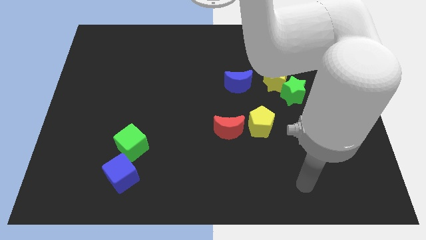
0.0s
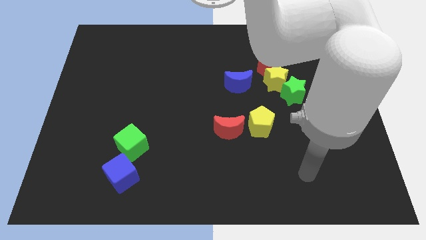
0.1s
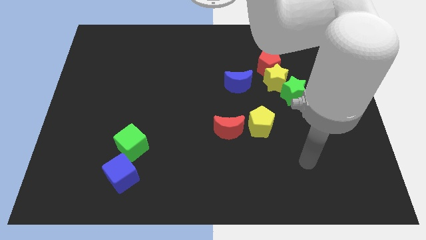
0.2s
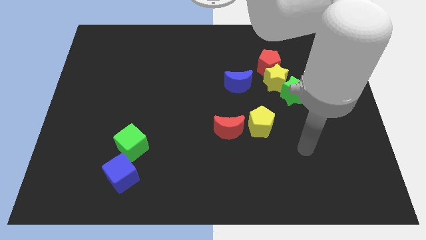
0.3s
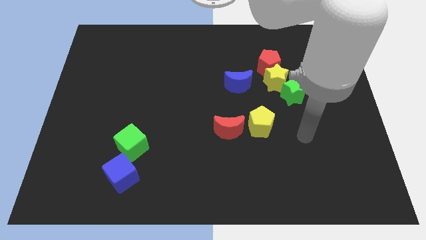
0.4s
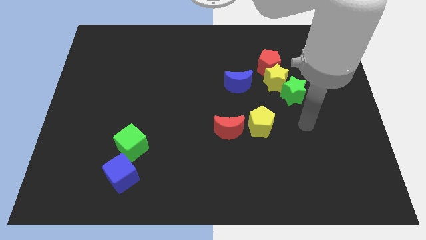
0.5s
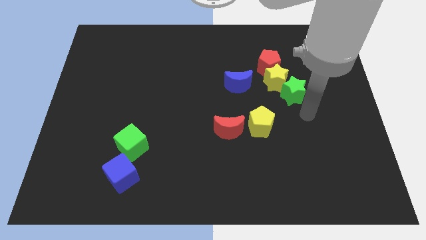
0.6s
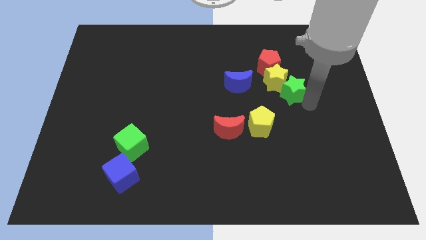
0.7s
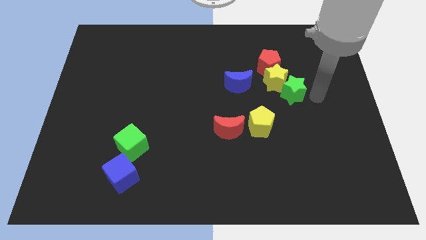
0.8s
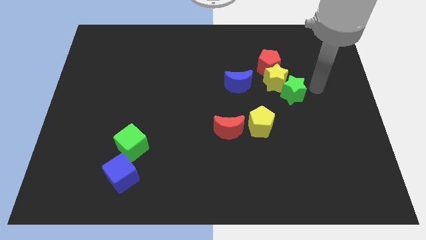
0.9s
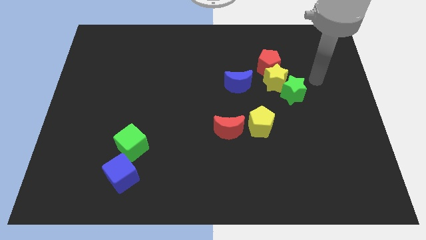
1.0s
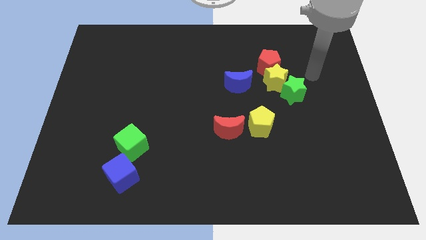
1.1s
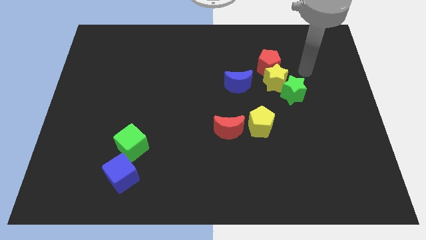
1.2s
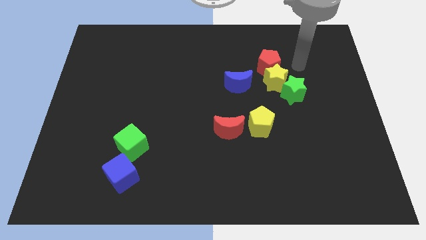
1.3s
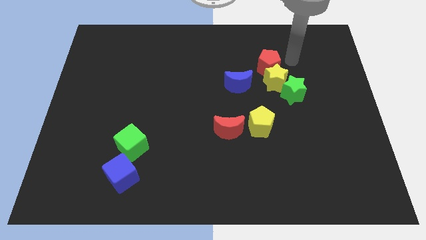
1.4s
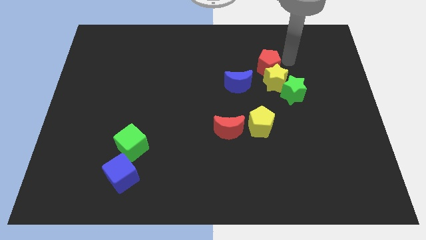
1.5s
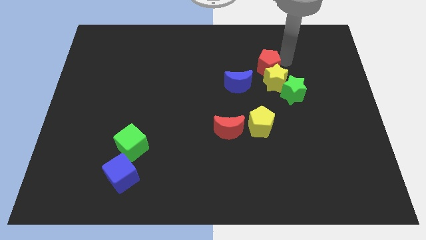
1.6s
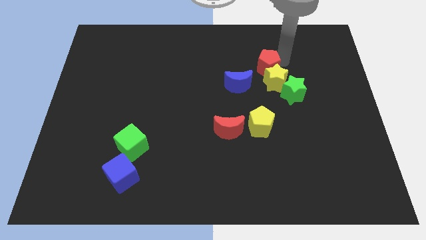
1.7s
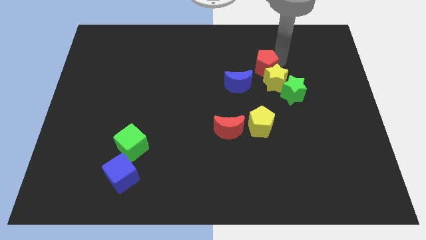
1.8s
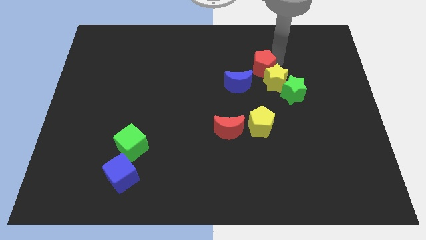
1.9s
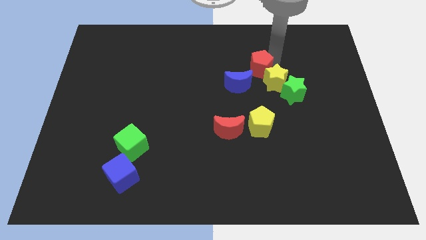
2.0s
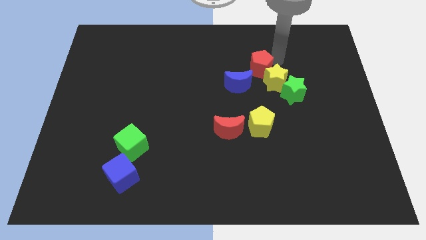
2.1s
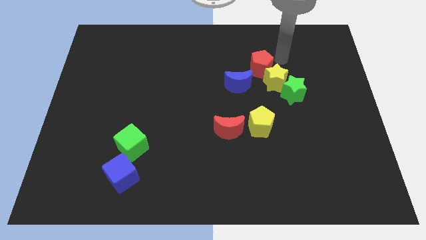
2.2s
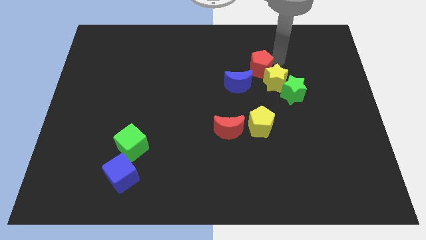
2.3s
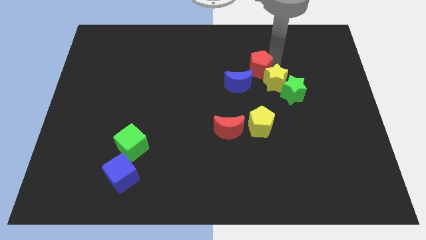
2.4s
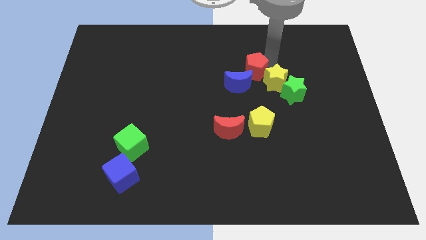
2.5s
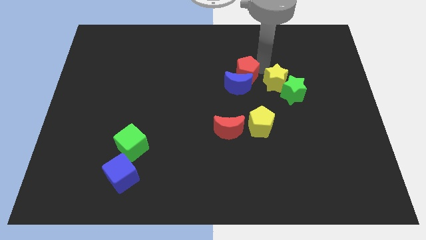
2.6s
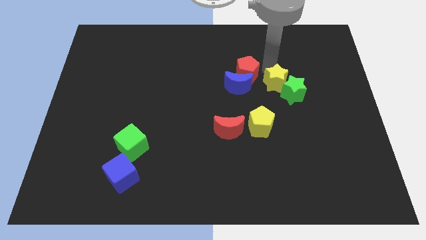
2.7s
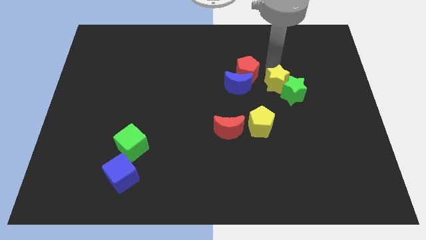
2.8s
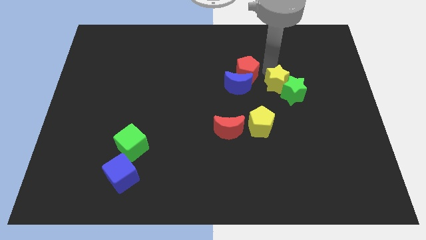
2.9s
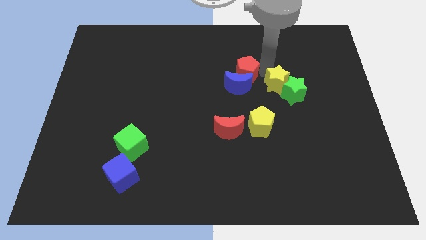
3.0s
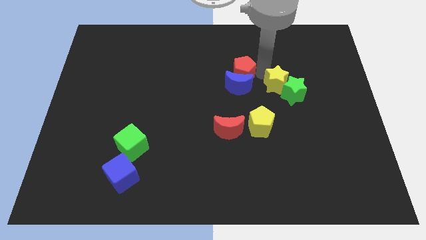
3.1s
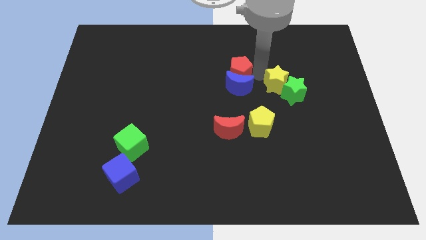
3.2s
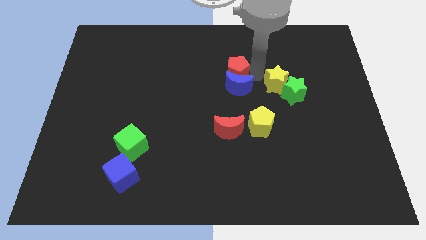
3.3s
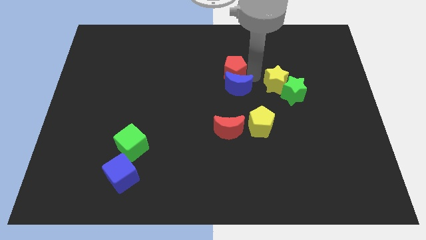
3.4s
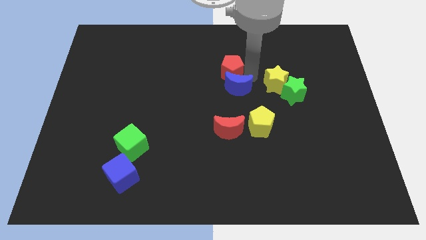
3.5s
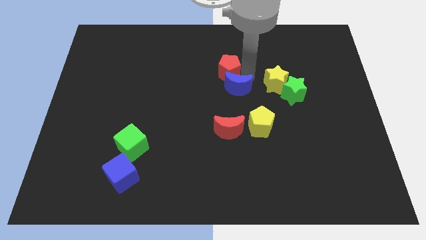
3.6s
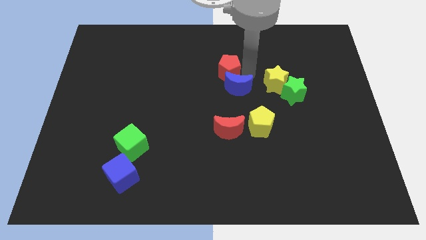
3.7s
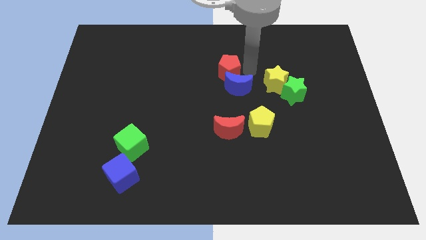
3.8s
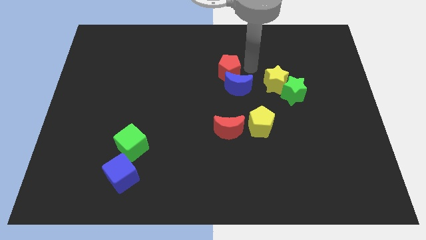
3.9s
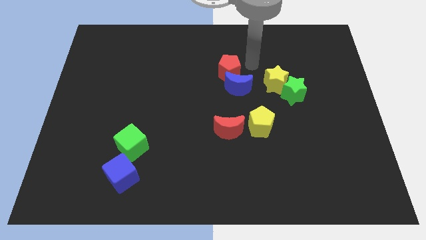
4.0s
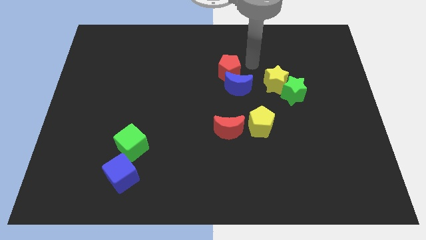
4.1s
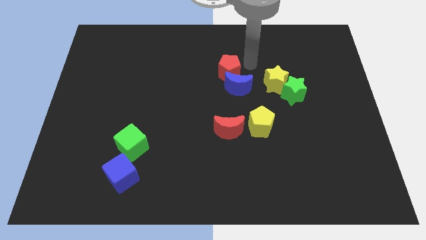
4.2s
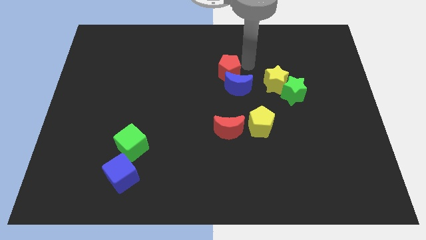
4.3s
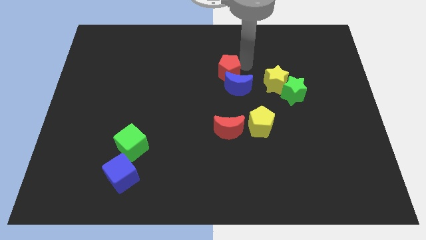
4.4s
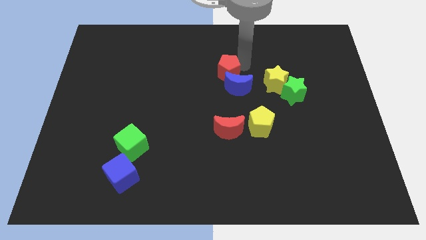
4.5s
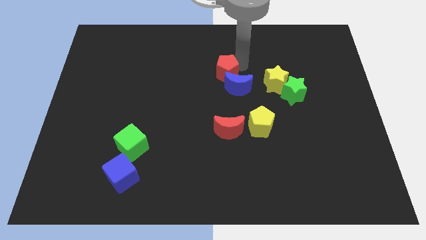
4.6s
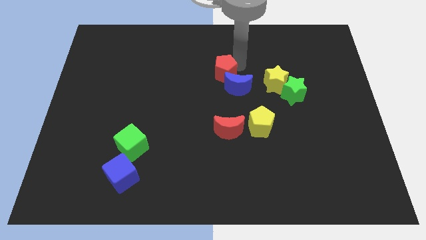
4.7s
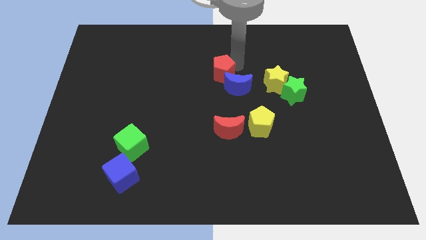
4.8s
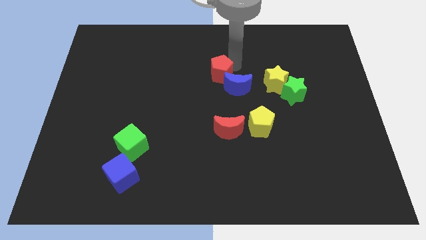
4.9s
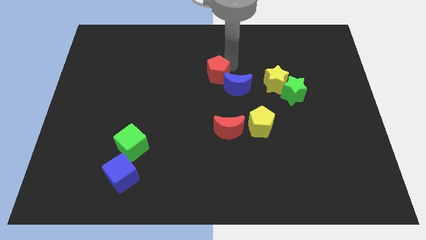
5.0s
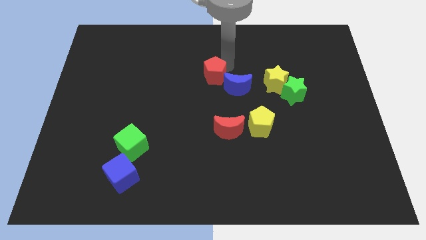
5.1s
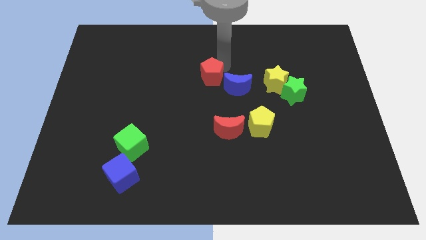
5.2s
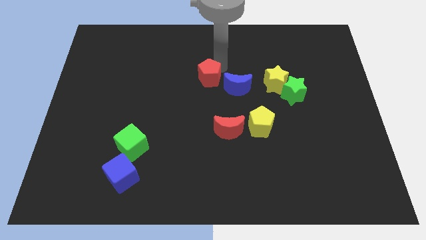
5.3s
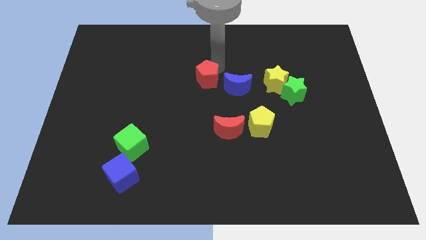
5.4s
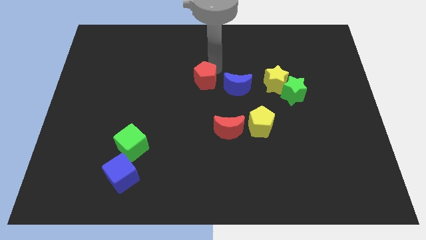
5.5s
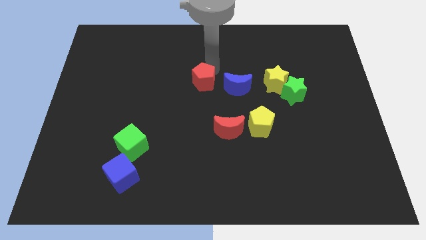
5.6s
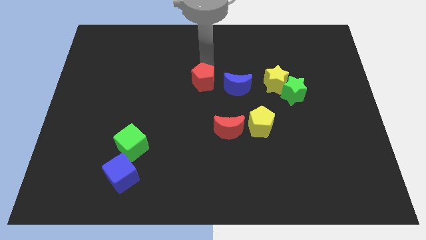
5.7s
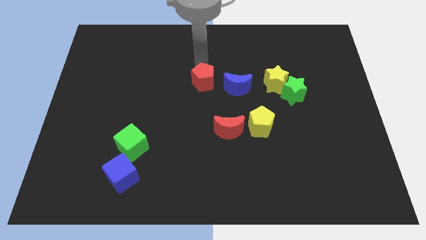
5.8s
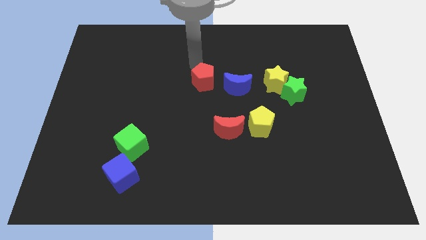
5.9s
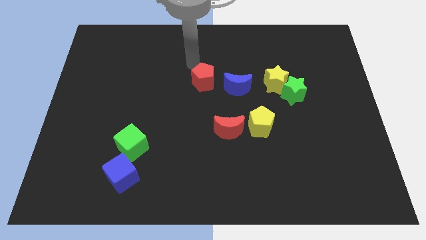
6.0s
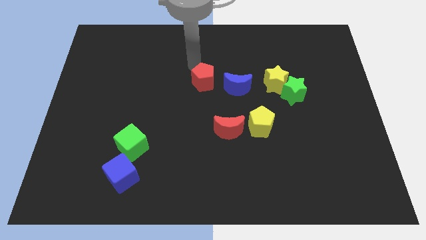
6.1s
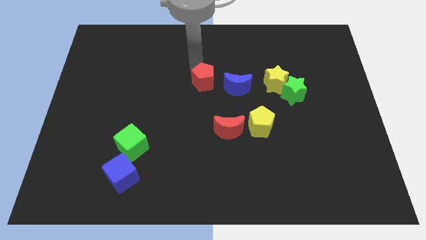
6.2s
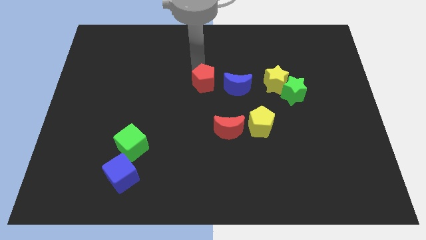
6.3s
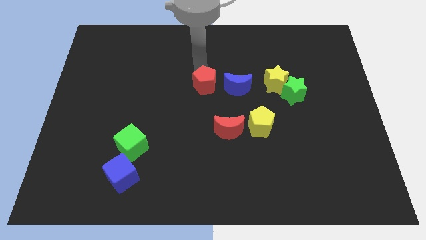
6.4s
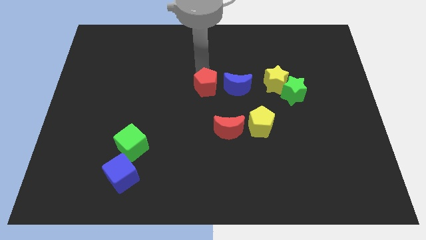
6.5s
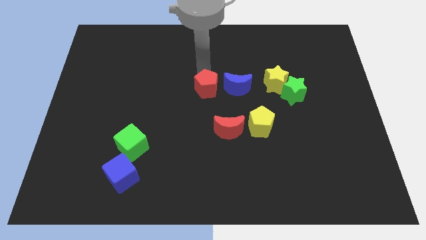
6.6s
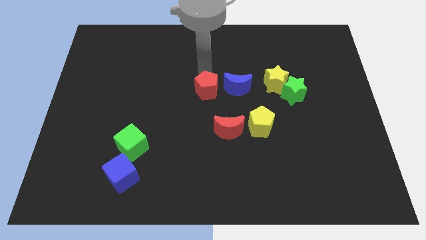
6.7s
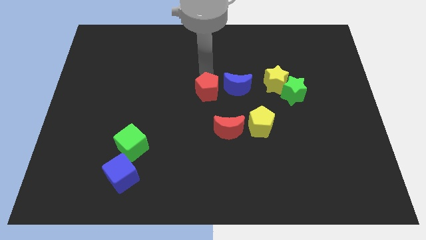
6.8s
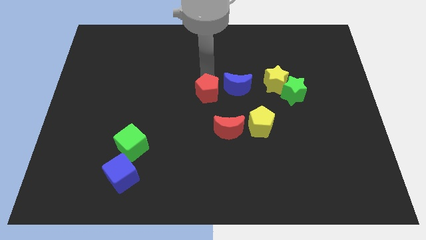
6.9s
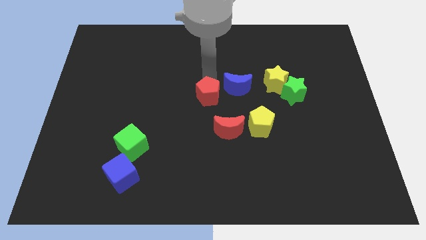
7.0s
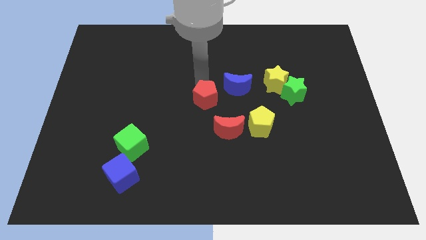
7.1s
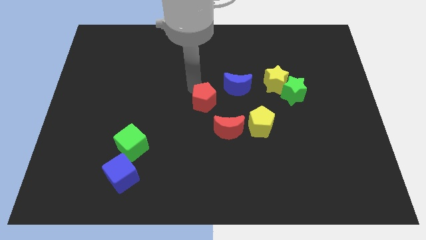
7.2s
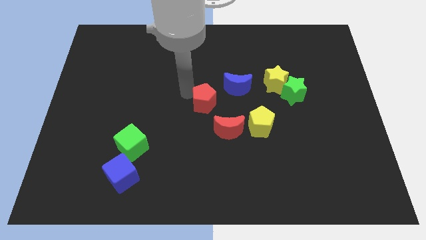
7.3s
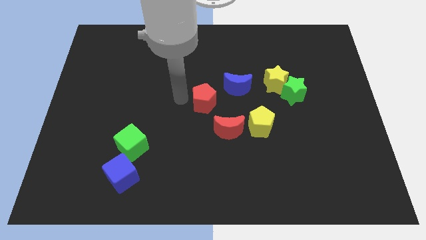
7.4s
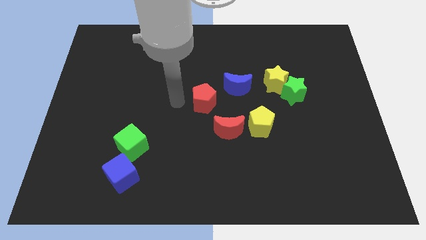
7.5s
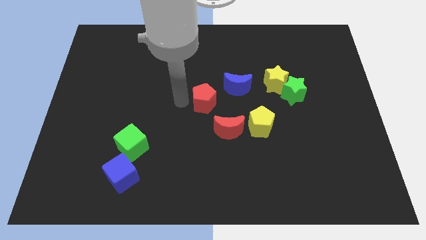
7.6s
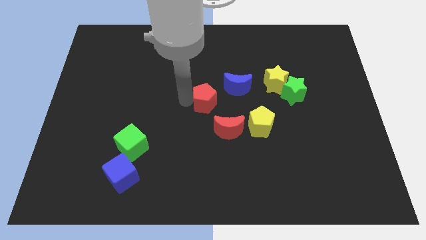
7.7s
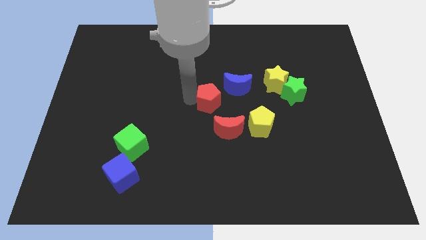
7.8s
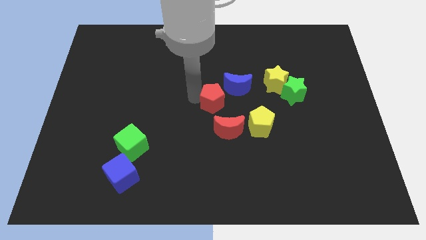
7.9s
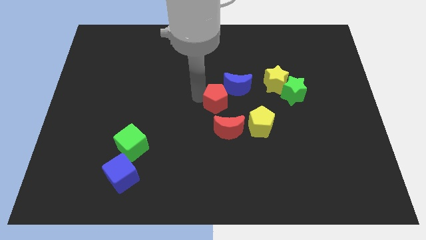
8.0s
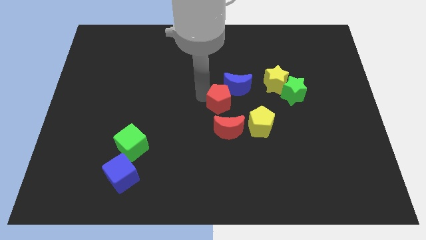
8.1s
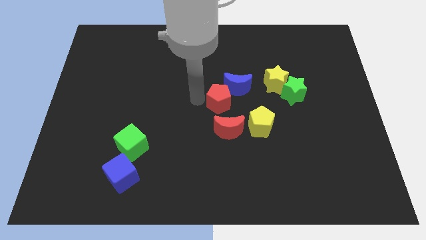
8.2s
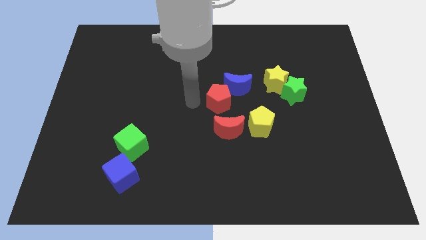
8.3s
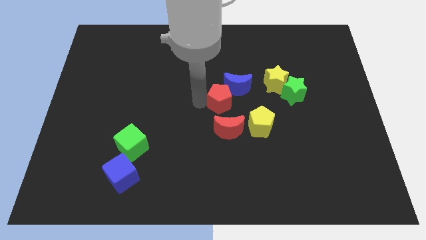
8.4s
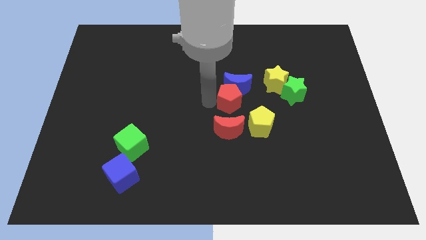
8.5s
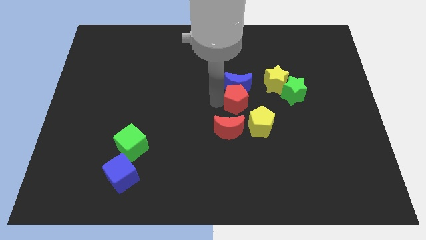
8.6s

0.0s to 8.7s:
put the red pentagon diagonally down and to the left of the yellow star
